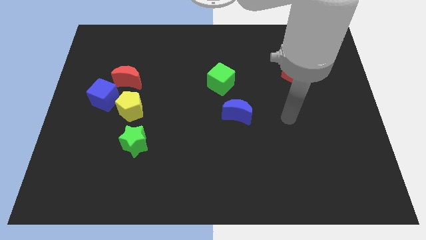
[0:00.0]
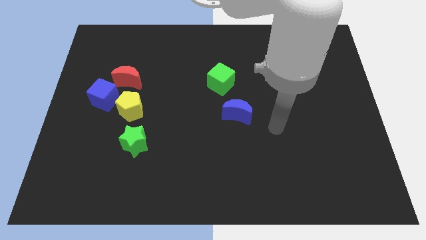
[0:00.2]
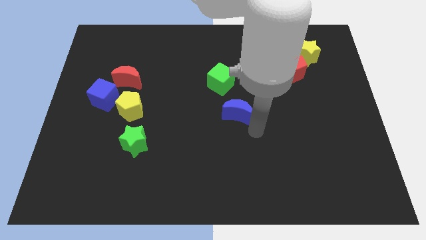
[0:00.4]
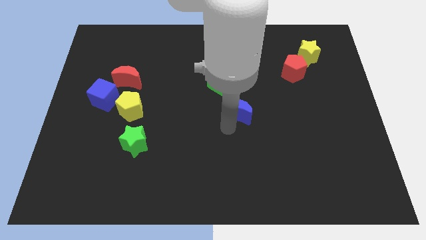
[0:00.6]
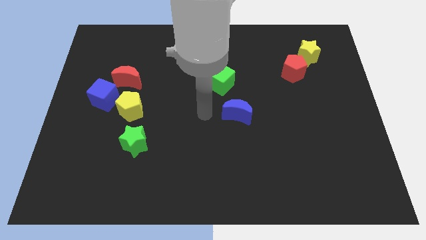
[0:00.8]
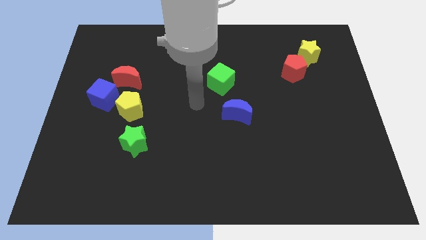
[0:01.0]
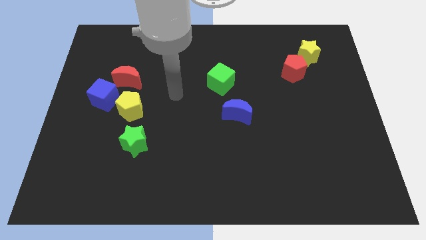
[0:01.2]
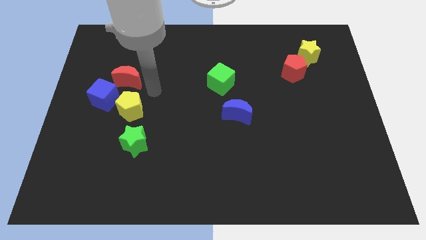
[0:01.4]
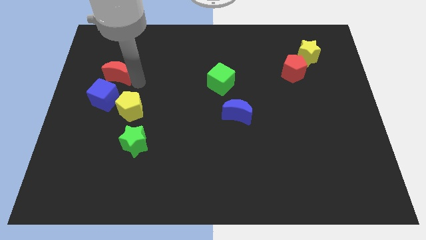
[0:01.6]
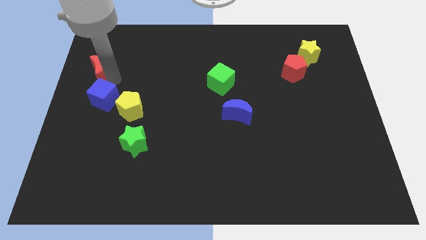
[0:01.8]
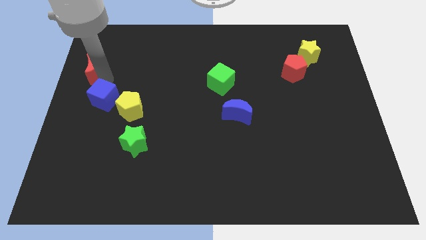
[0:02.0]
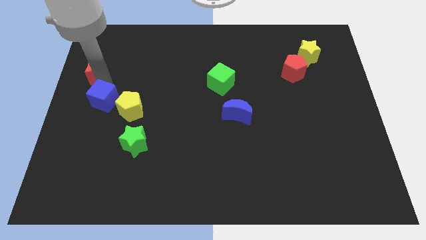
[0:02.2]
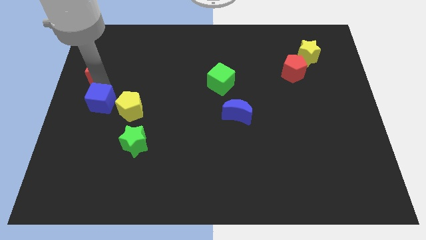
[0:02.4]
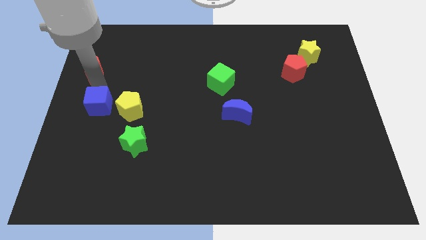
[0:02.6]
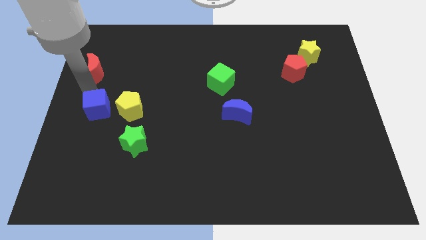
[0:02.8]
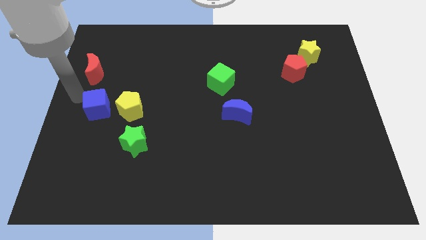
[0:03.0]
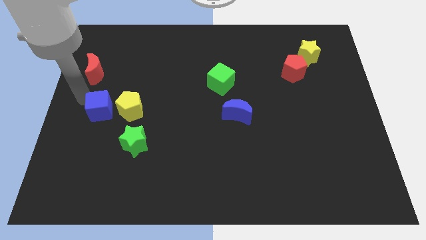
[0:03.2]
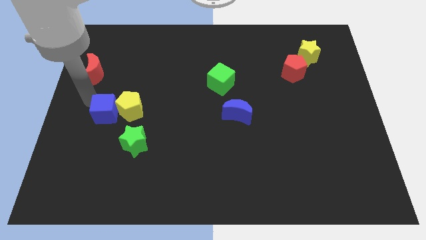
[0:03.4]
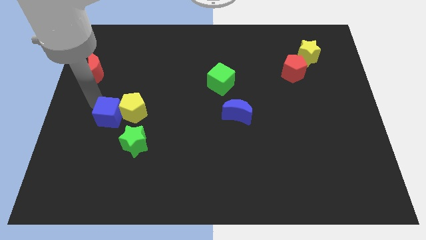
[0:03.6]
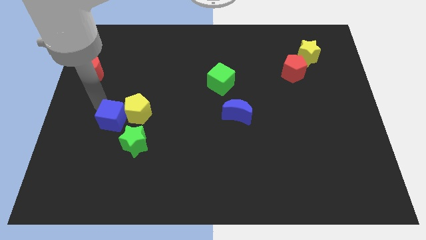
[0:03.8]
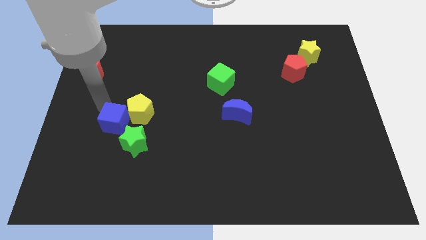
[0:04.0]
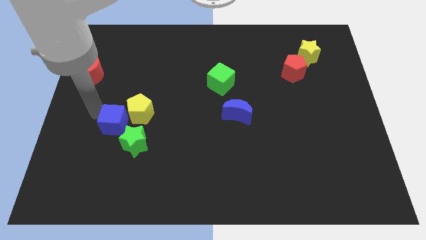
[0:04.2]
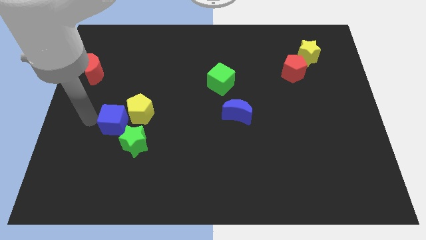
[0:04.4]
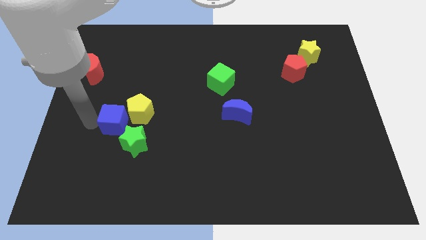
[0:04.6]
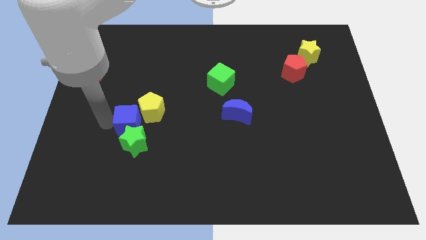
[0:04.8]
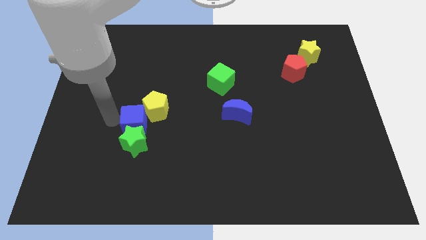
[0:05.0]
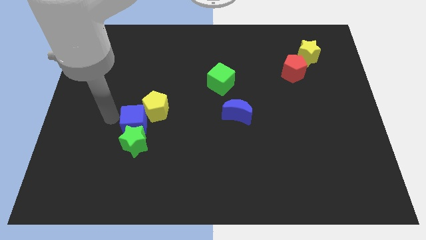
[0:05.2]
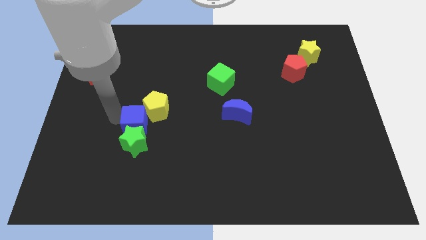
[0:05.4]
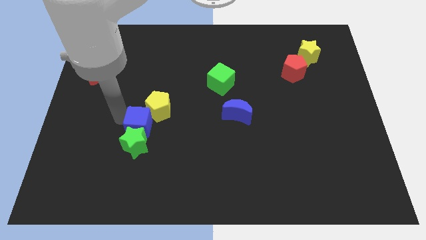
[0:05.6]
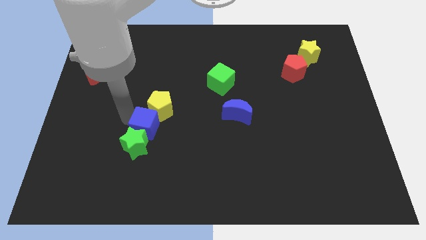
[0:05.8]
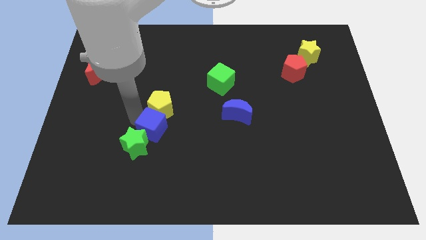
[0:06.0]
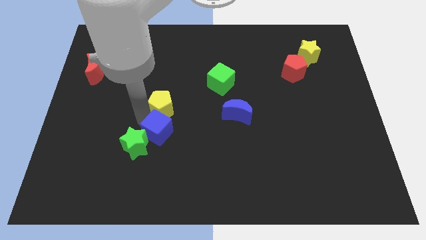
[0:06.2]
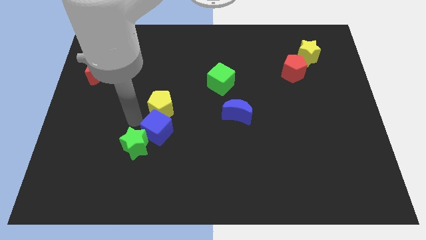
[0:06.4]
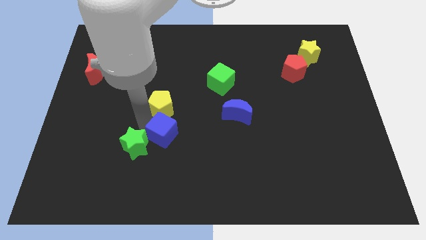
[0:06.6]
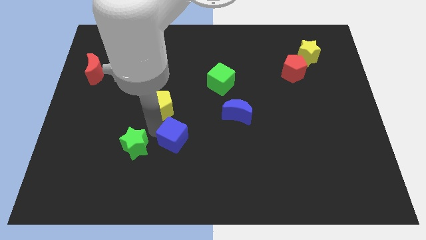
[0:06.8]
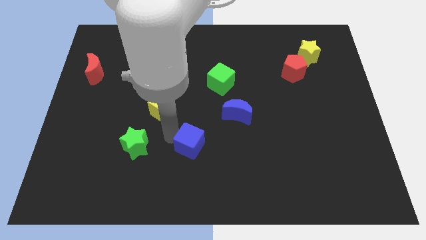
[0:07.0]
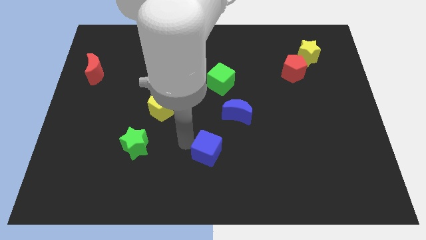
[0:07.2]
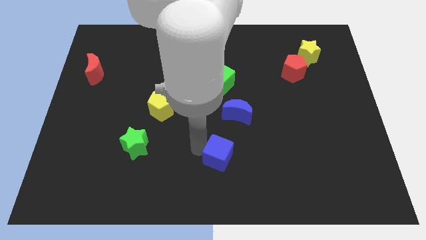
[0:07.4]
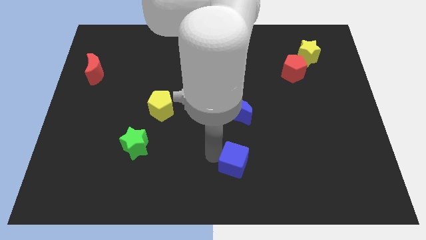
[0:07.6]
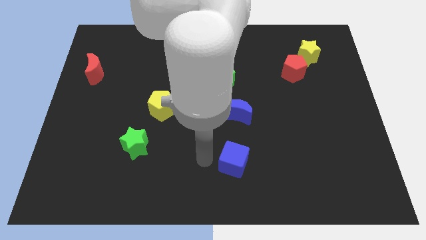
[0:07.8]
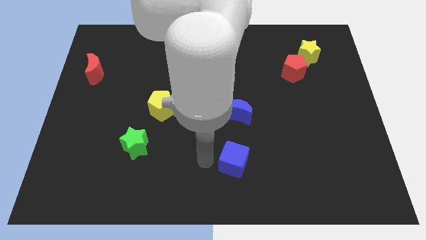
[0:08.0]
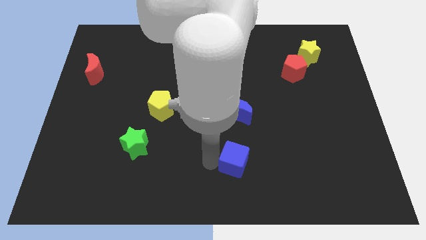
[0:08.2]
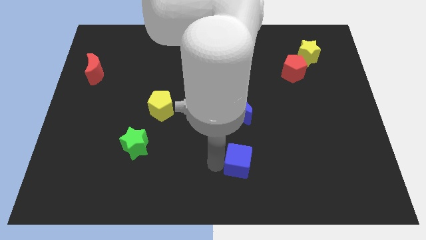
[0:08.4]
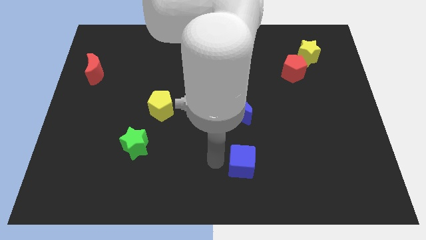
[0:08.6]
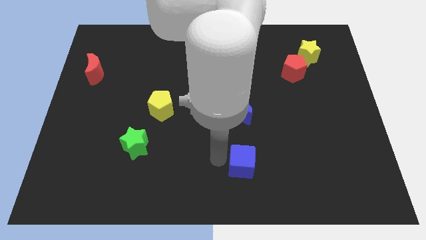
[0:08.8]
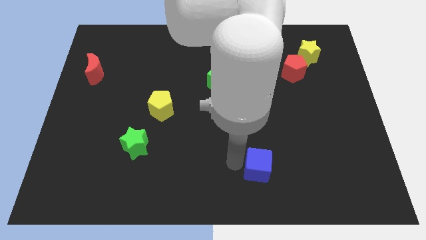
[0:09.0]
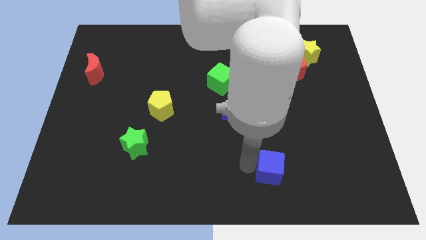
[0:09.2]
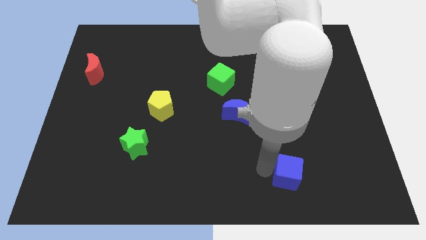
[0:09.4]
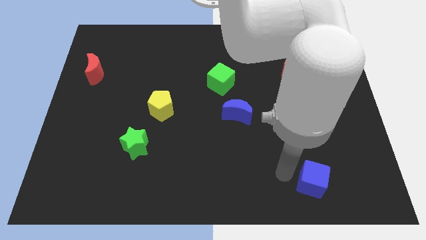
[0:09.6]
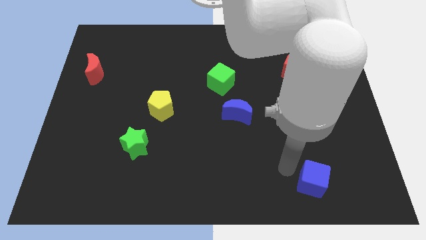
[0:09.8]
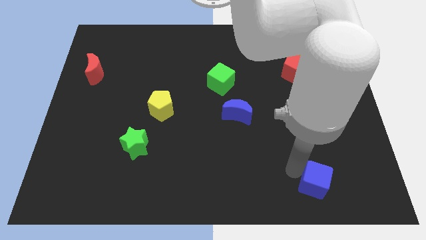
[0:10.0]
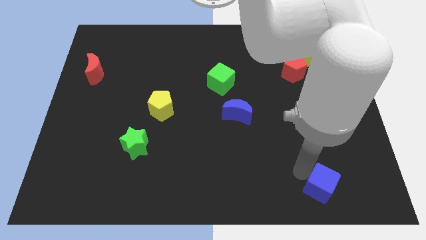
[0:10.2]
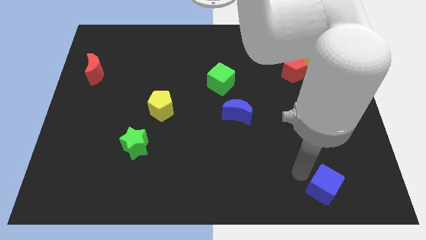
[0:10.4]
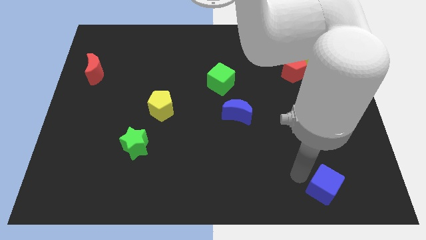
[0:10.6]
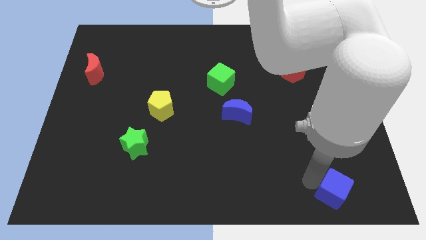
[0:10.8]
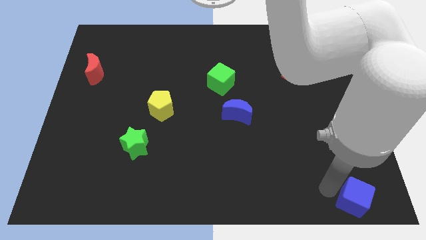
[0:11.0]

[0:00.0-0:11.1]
slide the blue cube to the bottom right corner

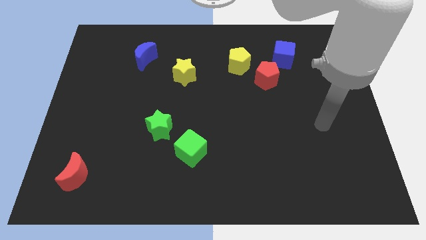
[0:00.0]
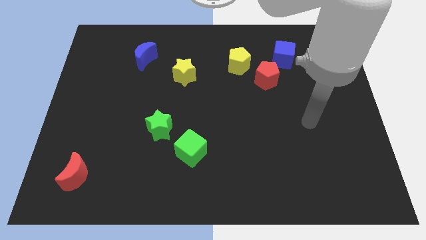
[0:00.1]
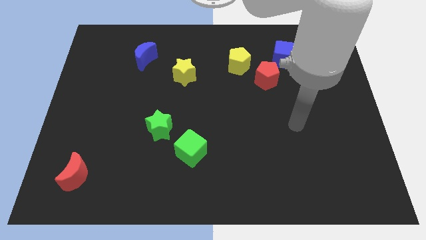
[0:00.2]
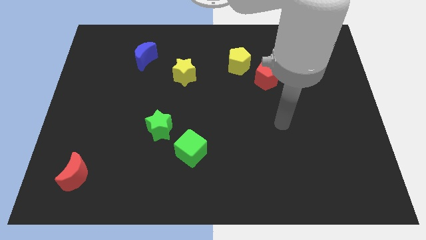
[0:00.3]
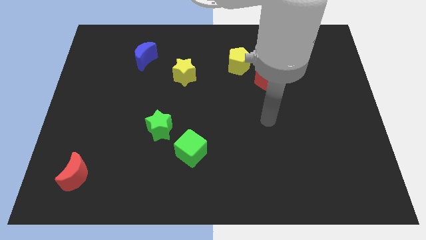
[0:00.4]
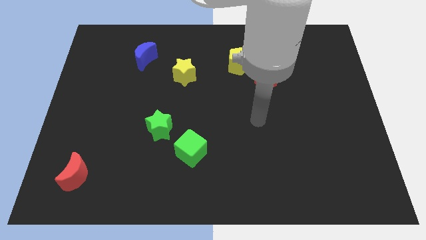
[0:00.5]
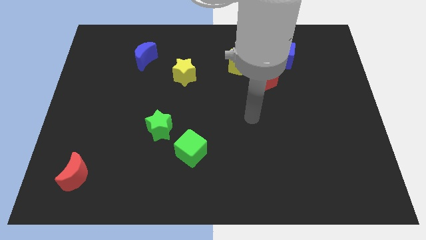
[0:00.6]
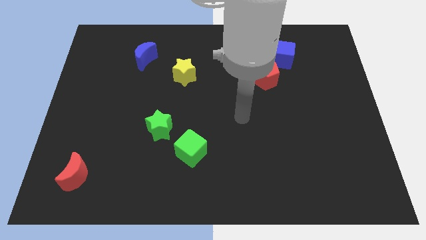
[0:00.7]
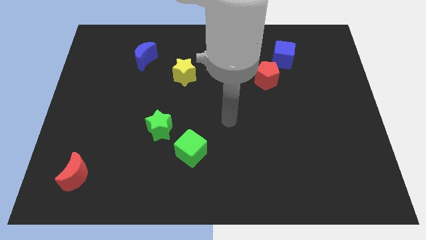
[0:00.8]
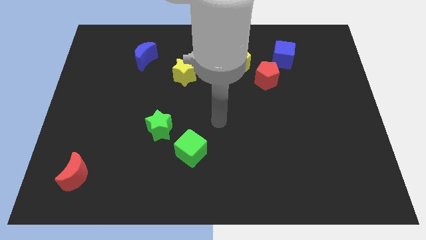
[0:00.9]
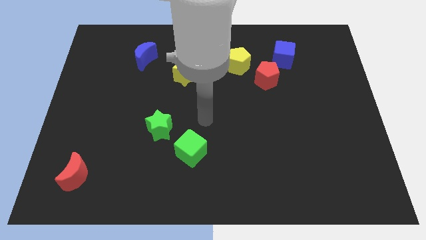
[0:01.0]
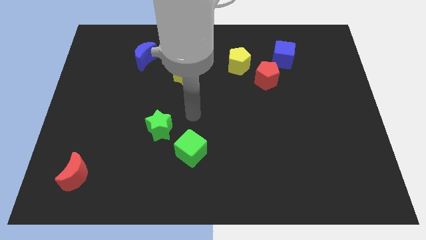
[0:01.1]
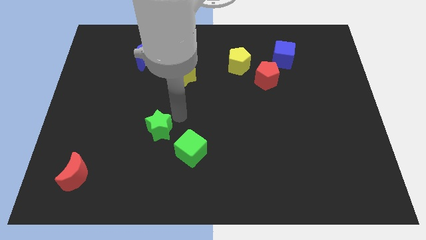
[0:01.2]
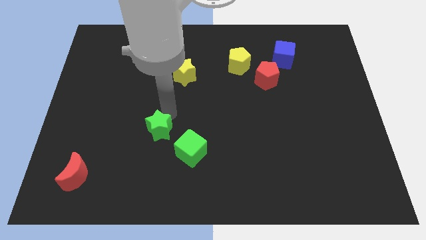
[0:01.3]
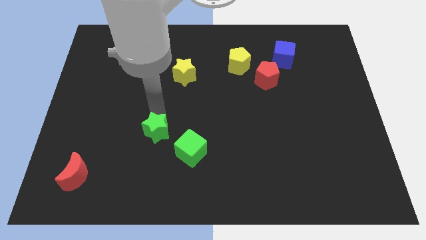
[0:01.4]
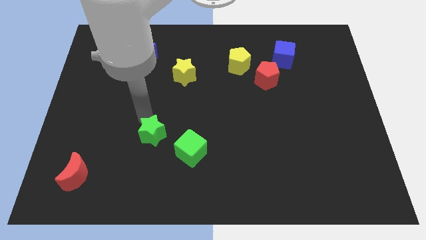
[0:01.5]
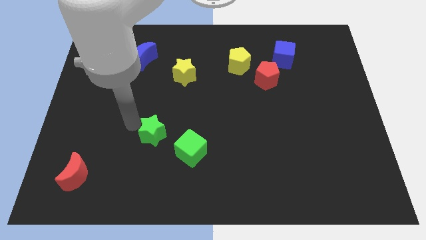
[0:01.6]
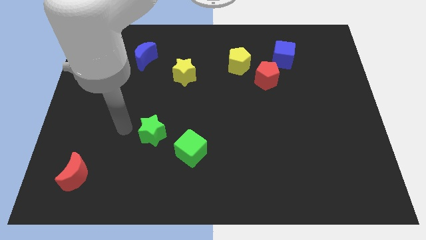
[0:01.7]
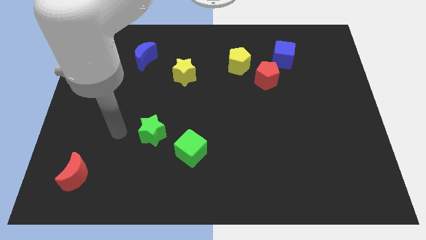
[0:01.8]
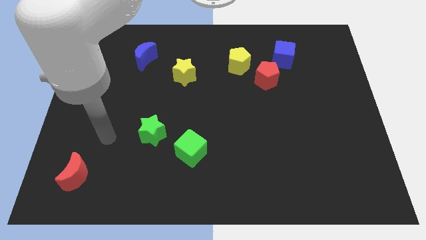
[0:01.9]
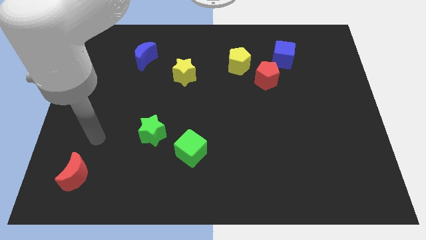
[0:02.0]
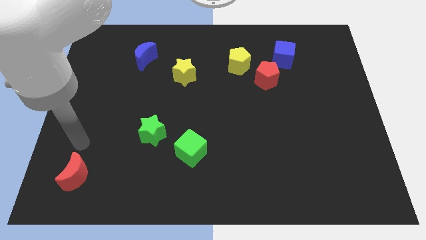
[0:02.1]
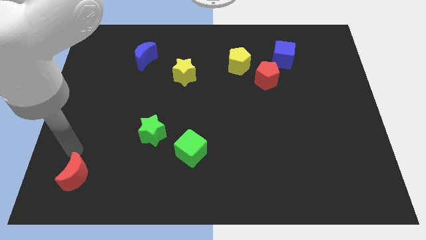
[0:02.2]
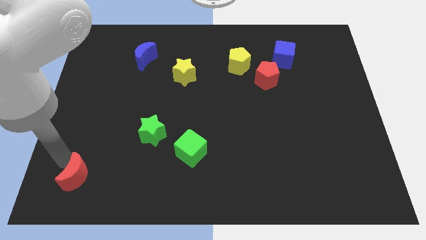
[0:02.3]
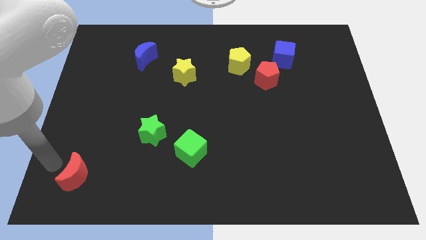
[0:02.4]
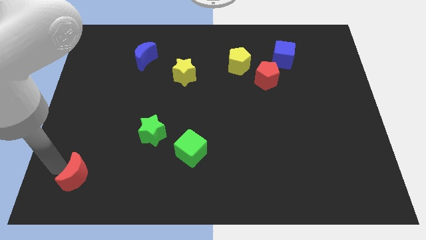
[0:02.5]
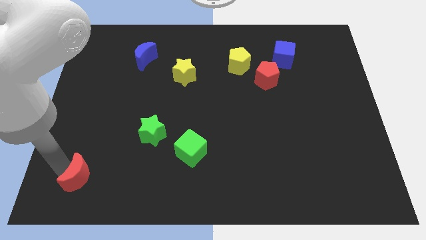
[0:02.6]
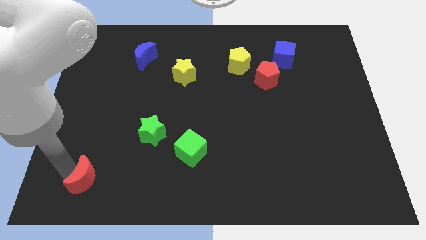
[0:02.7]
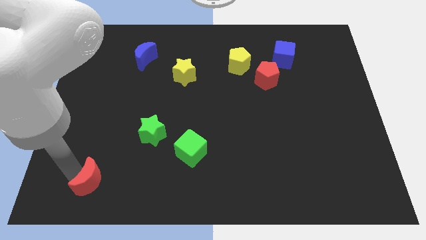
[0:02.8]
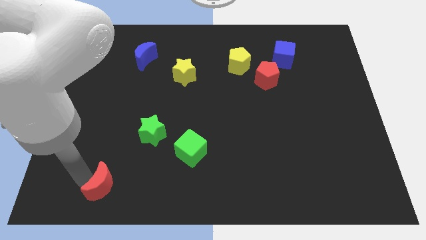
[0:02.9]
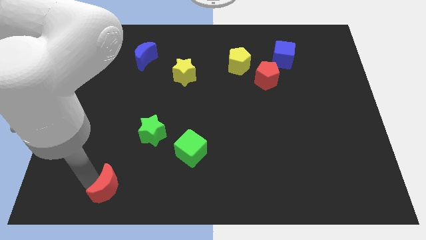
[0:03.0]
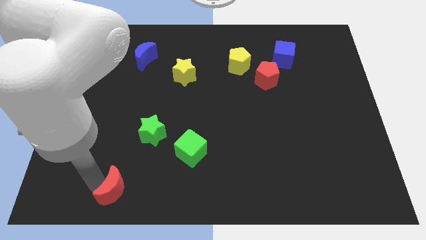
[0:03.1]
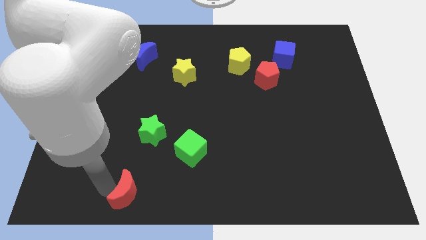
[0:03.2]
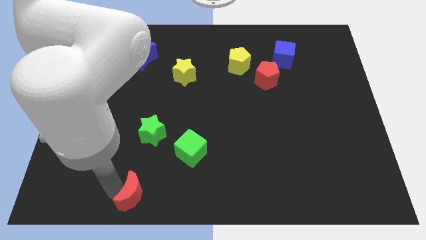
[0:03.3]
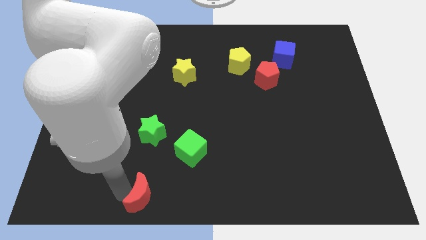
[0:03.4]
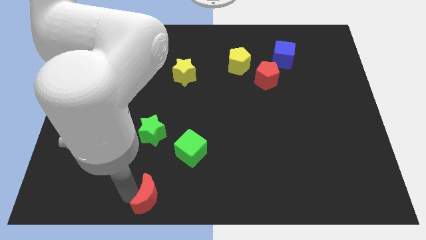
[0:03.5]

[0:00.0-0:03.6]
slide the red moon to the bottom side
